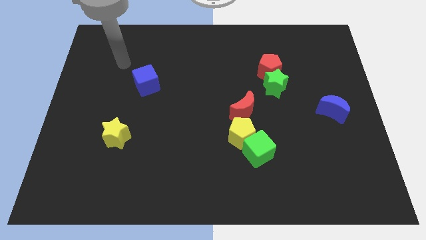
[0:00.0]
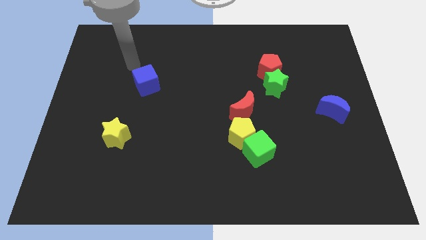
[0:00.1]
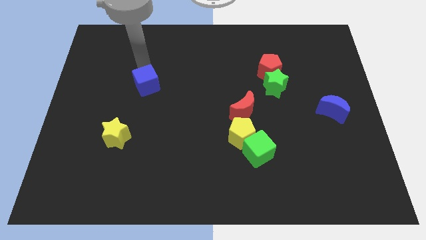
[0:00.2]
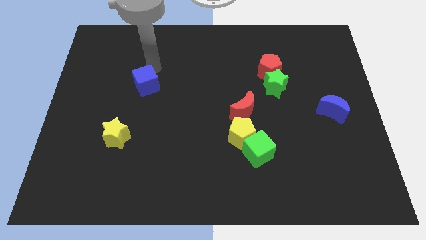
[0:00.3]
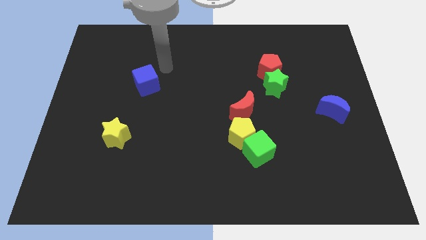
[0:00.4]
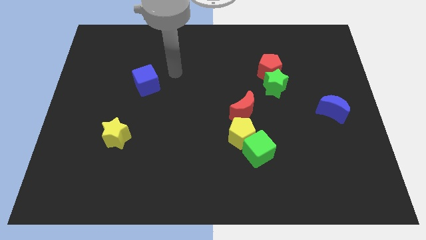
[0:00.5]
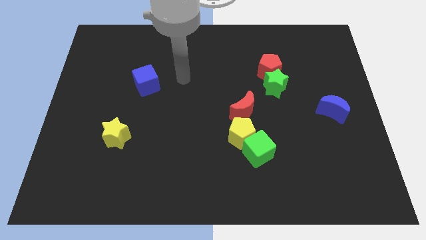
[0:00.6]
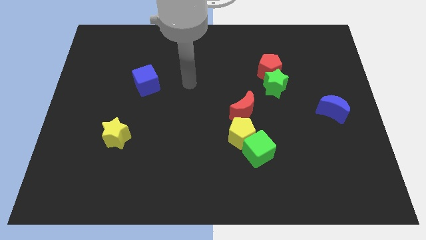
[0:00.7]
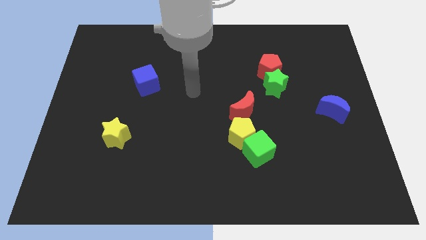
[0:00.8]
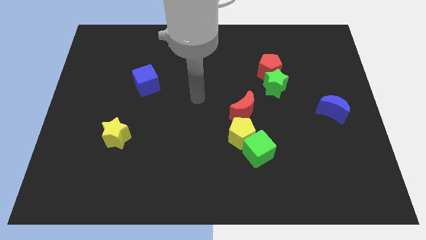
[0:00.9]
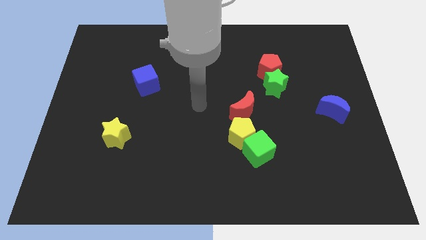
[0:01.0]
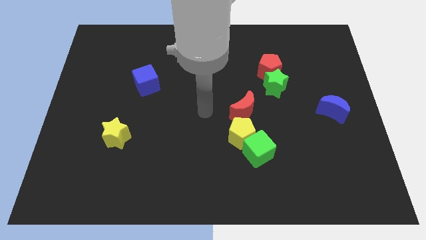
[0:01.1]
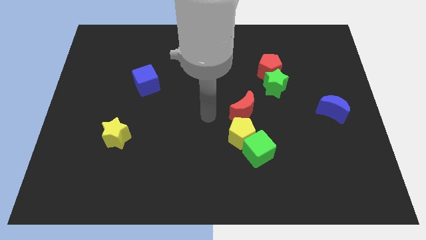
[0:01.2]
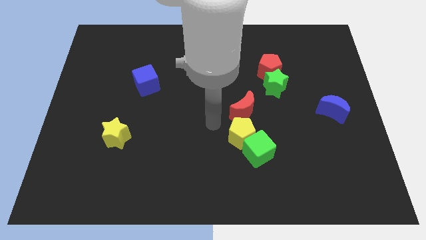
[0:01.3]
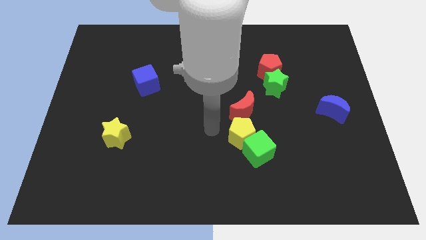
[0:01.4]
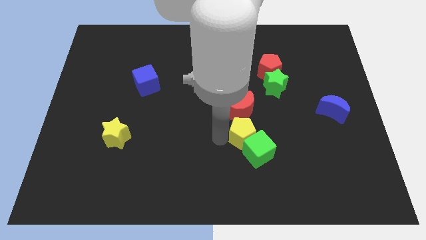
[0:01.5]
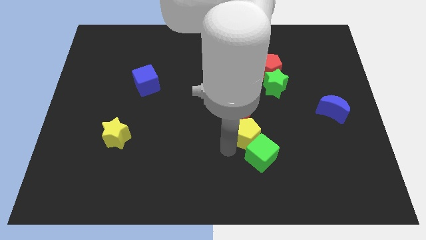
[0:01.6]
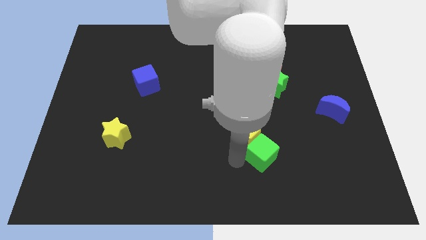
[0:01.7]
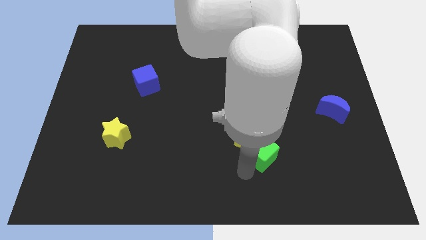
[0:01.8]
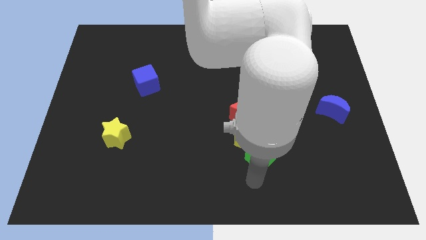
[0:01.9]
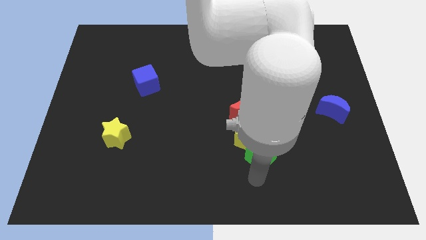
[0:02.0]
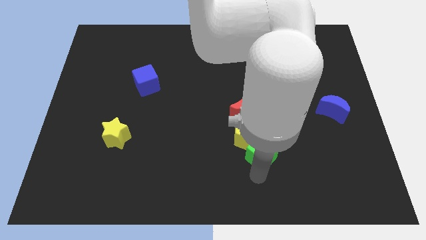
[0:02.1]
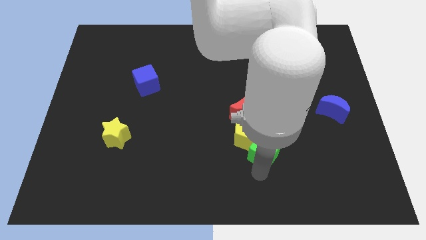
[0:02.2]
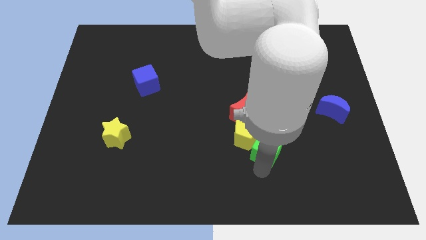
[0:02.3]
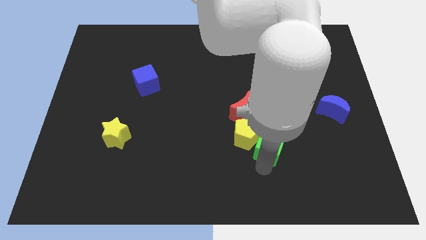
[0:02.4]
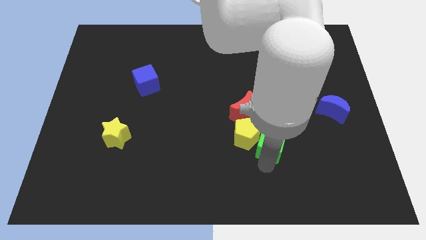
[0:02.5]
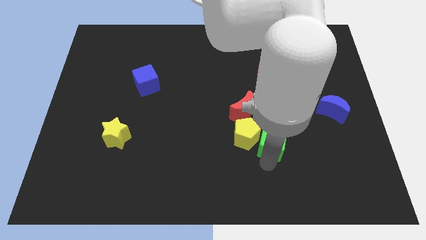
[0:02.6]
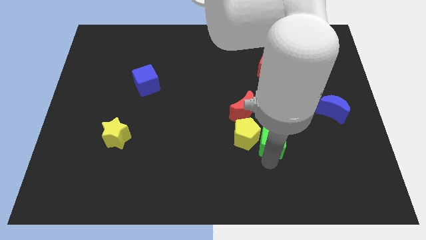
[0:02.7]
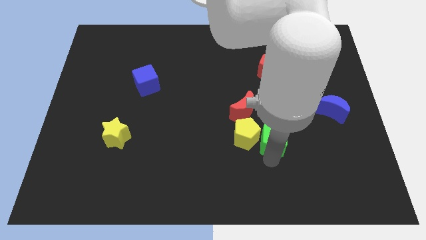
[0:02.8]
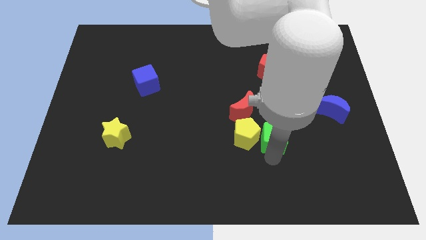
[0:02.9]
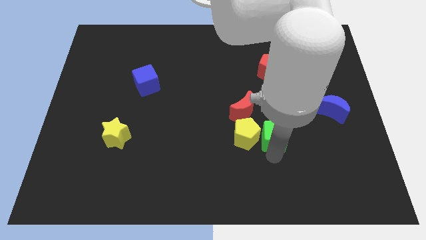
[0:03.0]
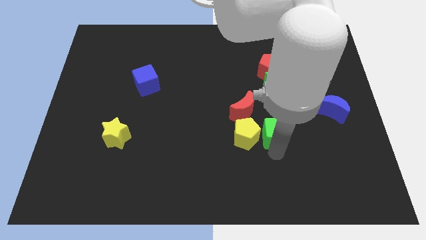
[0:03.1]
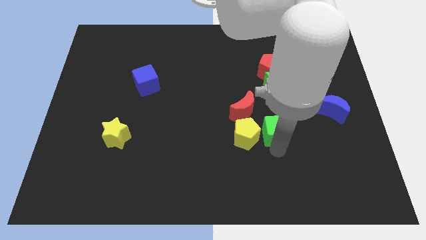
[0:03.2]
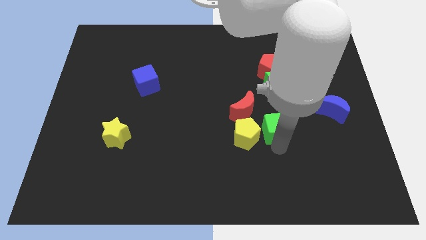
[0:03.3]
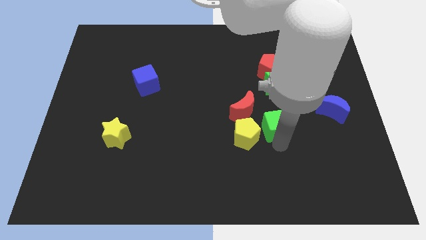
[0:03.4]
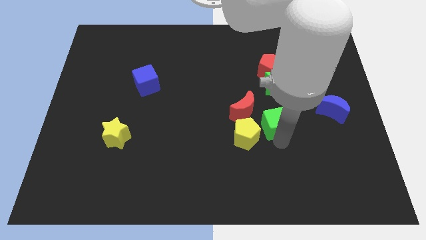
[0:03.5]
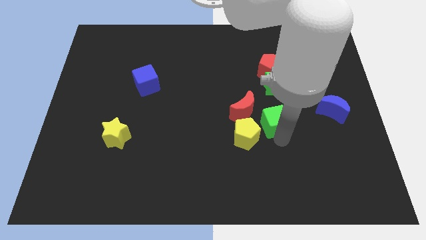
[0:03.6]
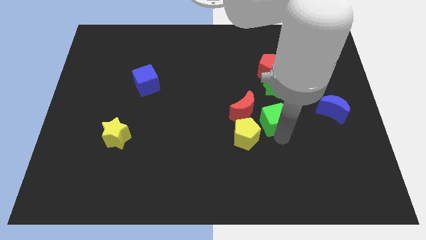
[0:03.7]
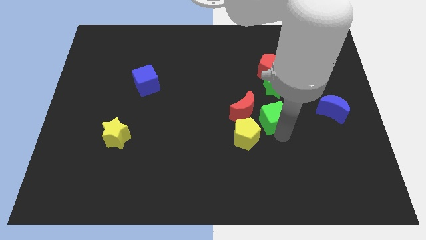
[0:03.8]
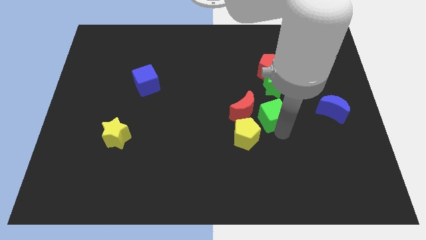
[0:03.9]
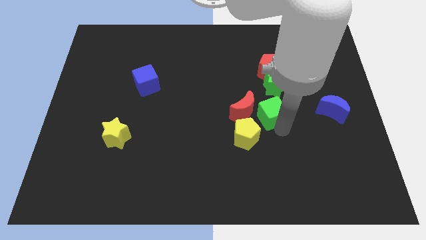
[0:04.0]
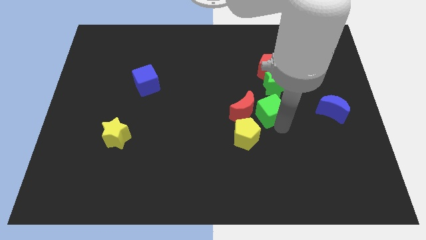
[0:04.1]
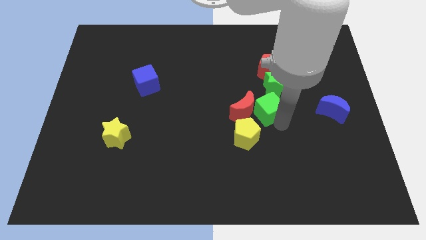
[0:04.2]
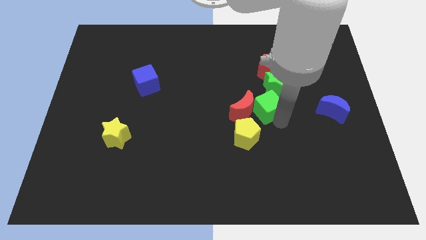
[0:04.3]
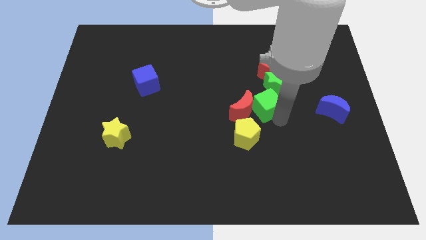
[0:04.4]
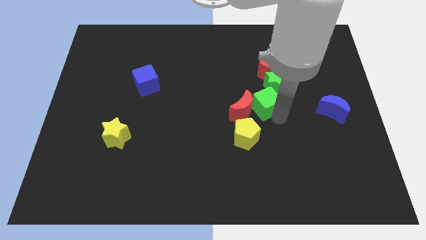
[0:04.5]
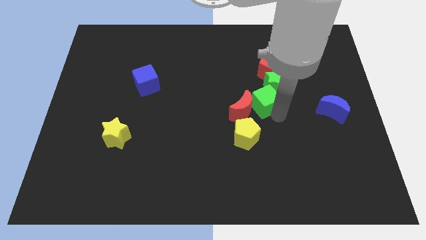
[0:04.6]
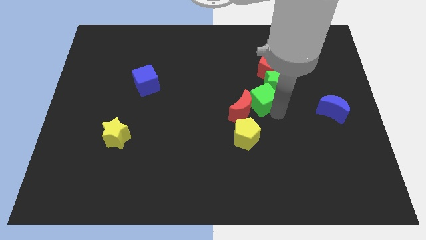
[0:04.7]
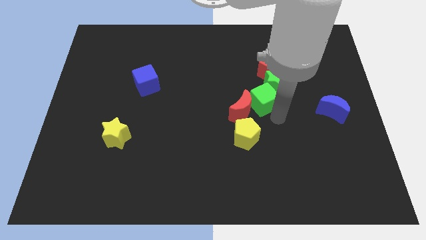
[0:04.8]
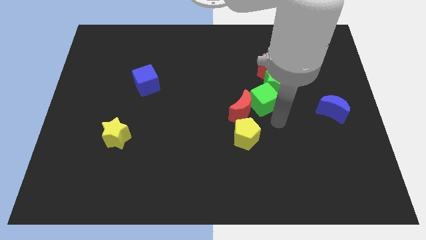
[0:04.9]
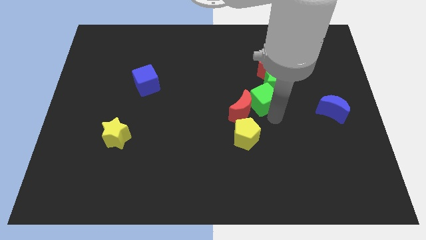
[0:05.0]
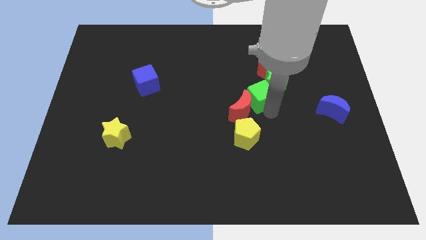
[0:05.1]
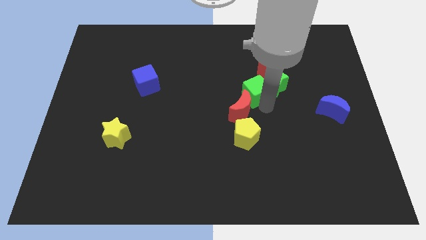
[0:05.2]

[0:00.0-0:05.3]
slide the green cube to the bottom left of the red pentagon

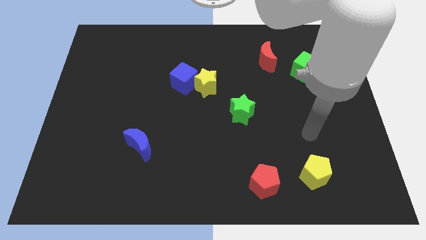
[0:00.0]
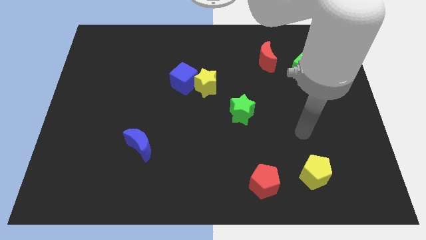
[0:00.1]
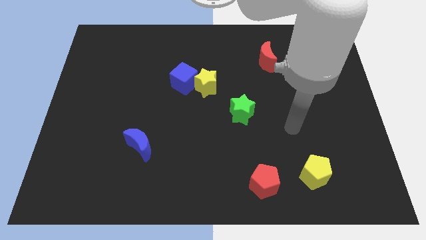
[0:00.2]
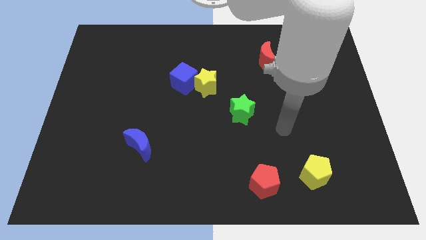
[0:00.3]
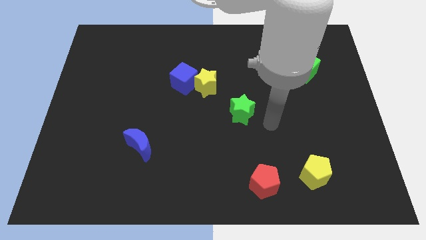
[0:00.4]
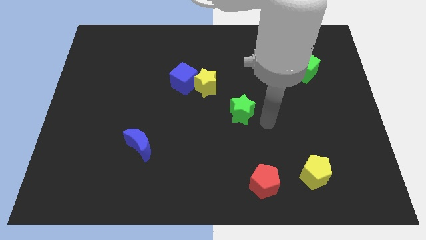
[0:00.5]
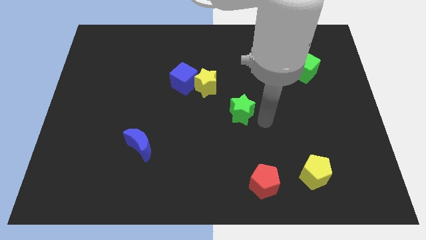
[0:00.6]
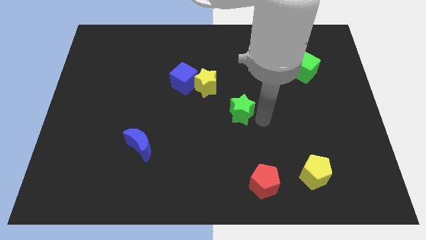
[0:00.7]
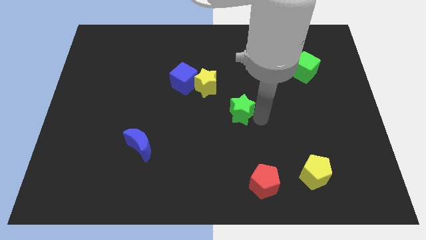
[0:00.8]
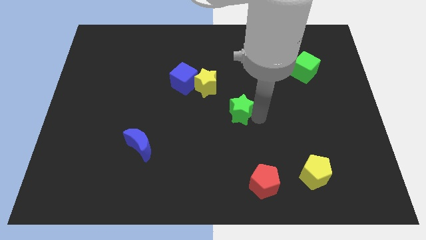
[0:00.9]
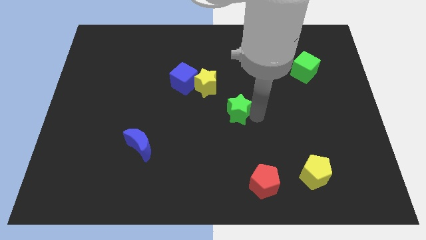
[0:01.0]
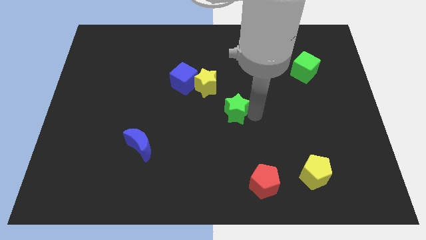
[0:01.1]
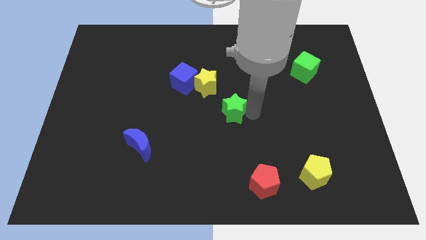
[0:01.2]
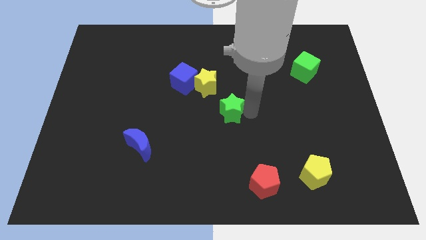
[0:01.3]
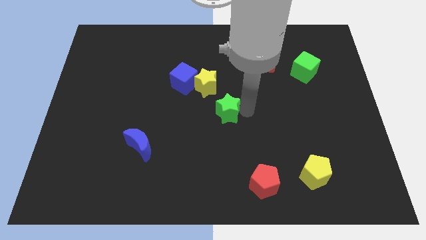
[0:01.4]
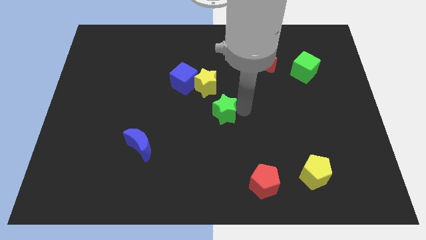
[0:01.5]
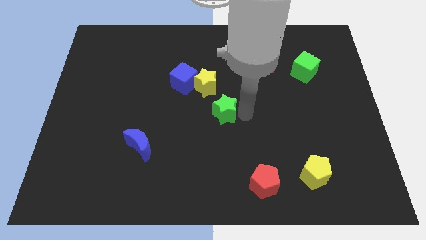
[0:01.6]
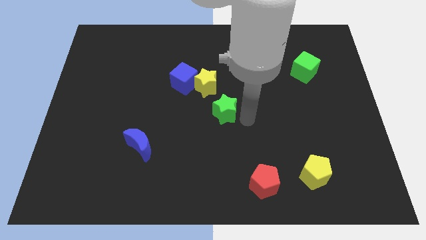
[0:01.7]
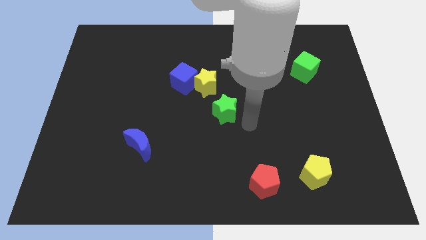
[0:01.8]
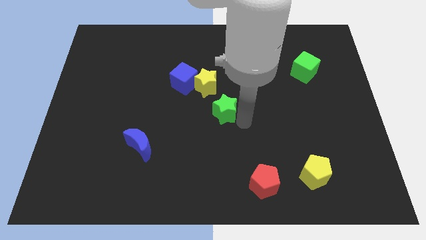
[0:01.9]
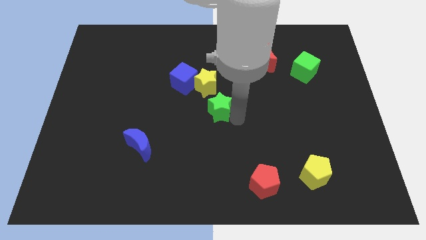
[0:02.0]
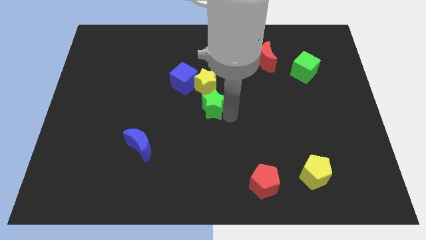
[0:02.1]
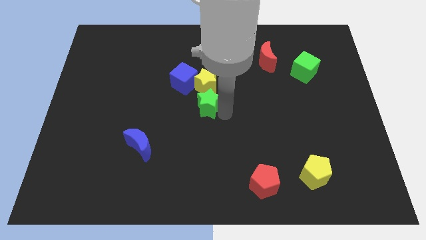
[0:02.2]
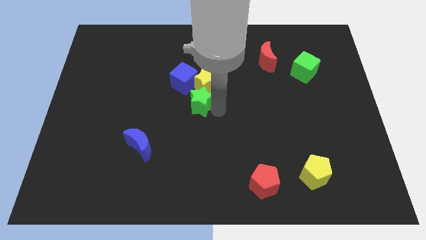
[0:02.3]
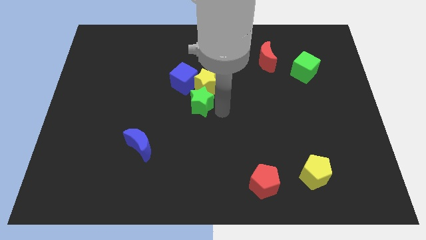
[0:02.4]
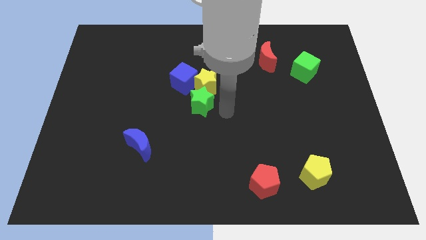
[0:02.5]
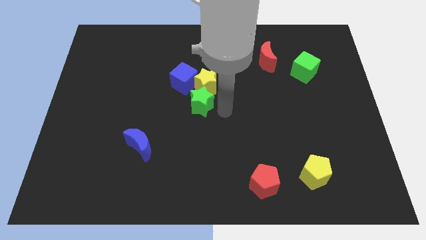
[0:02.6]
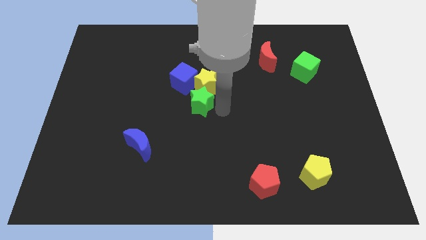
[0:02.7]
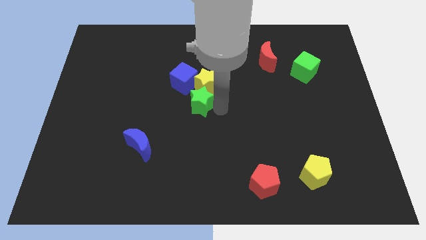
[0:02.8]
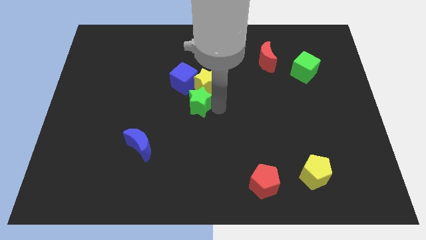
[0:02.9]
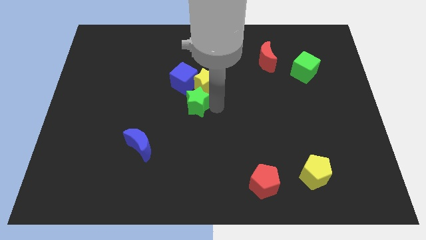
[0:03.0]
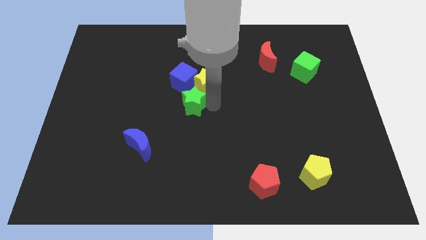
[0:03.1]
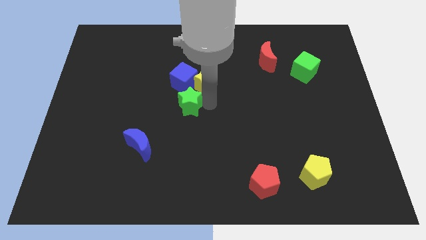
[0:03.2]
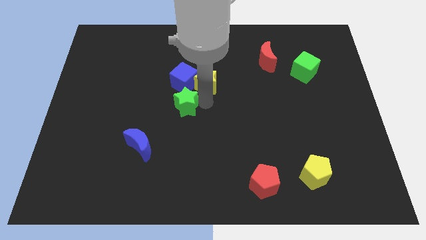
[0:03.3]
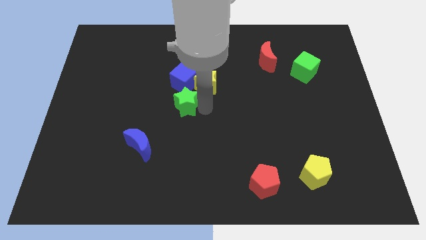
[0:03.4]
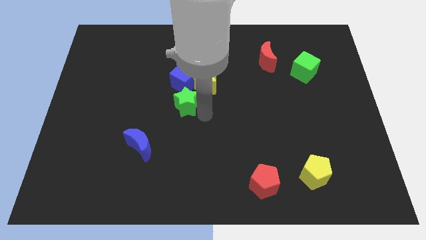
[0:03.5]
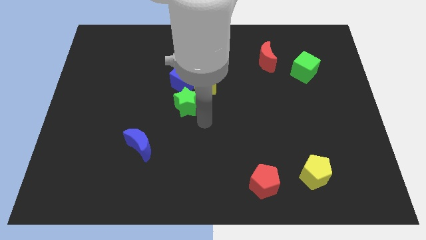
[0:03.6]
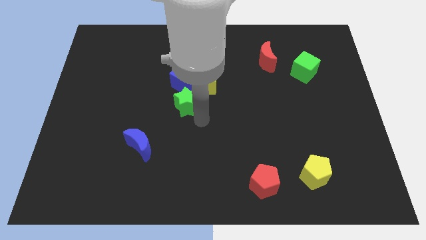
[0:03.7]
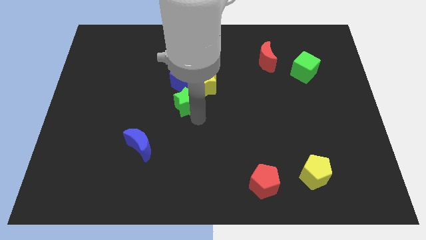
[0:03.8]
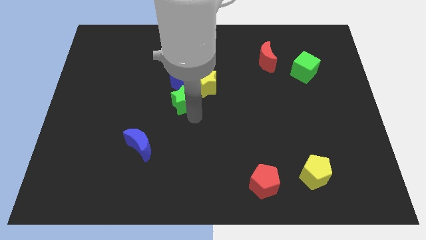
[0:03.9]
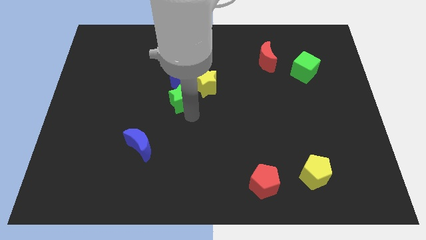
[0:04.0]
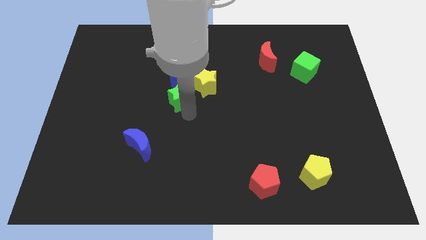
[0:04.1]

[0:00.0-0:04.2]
move the green star to the left side of the yellow star
